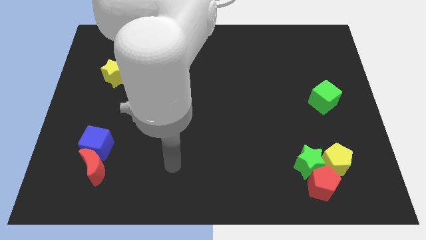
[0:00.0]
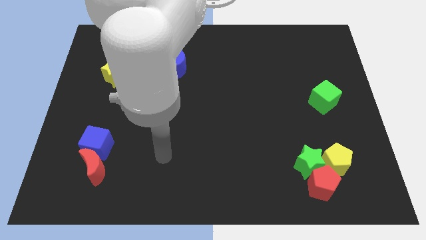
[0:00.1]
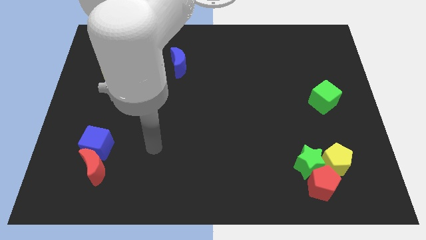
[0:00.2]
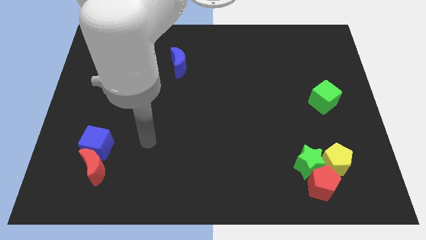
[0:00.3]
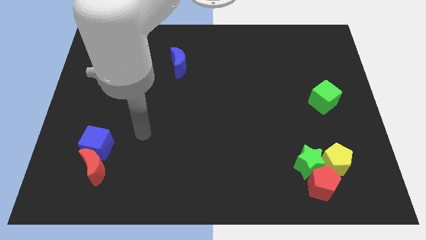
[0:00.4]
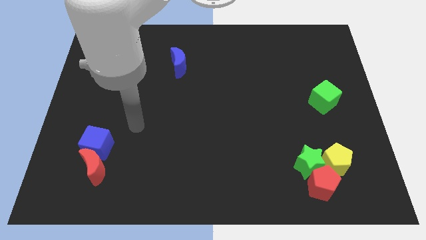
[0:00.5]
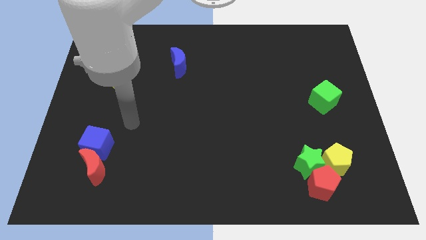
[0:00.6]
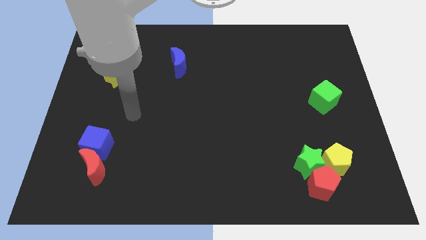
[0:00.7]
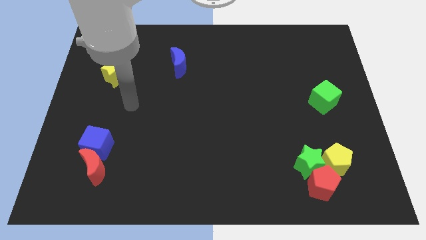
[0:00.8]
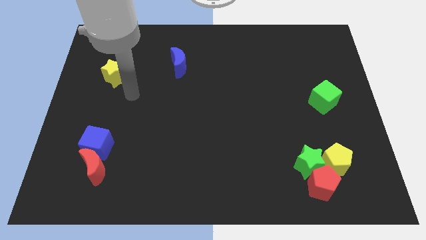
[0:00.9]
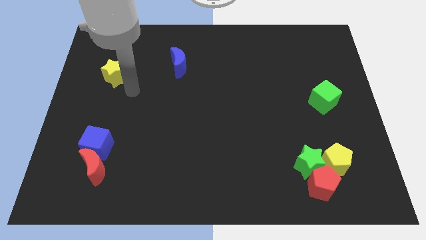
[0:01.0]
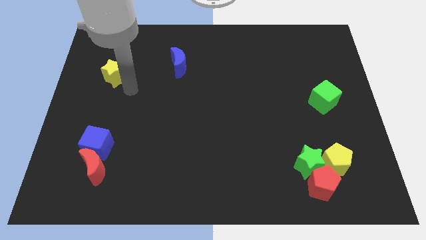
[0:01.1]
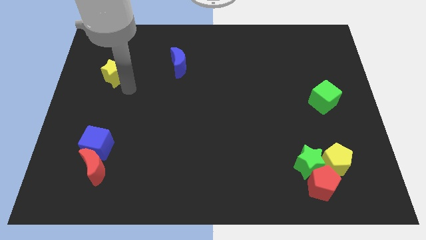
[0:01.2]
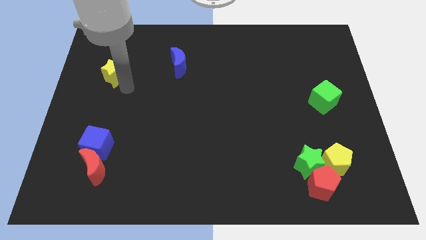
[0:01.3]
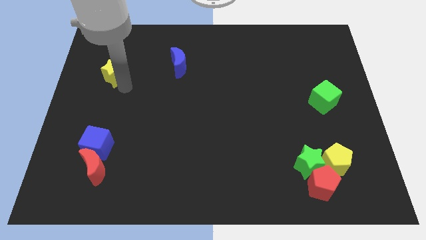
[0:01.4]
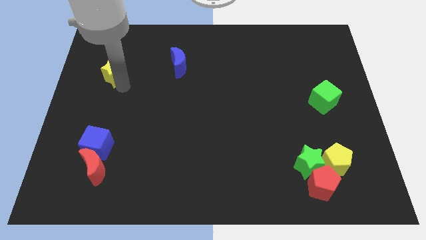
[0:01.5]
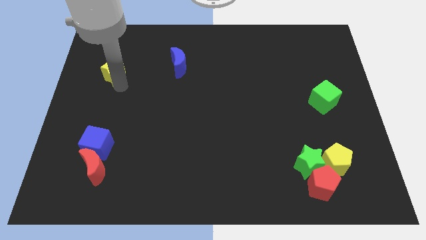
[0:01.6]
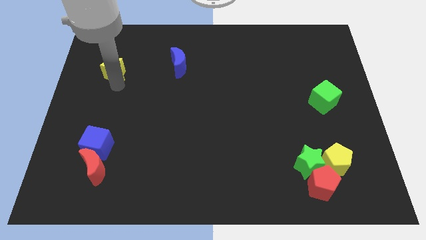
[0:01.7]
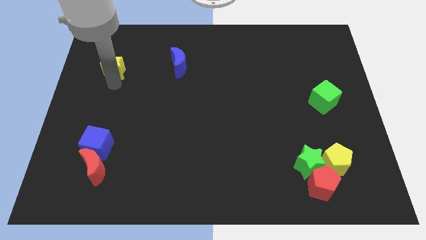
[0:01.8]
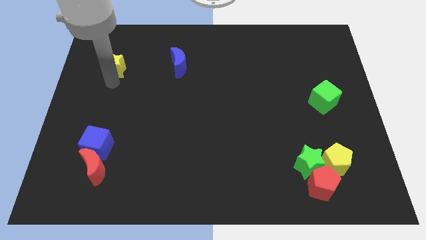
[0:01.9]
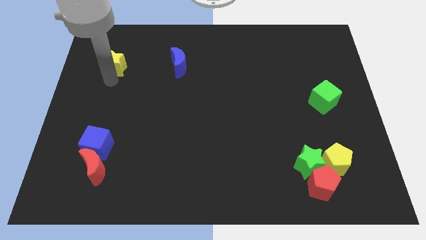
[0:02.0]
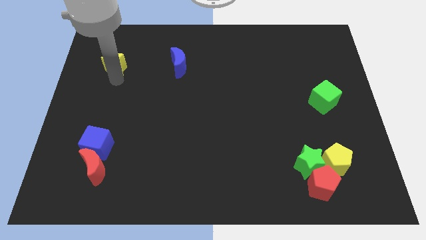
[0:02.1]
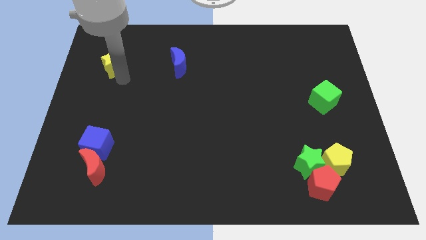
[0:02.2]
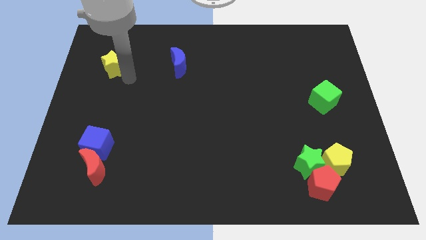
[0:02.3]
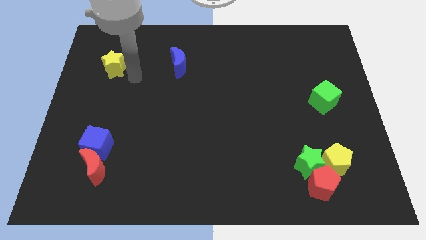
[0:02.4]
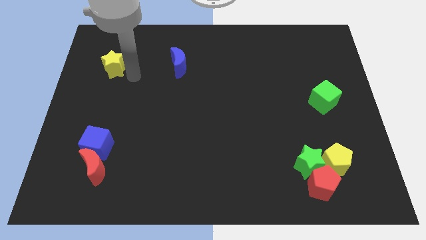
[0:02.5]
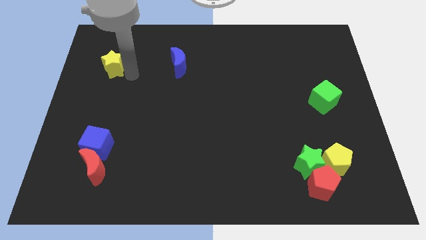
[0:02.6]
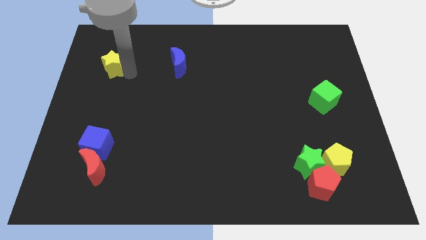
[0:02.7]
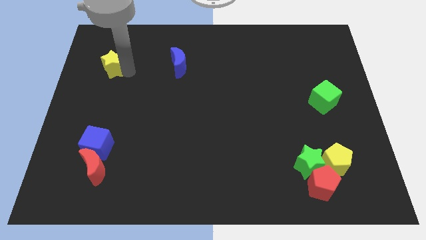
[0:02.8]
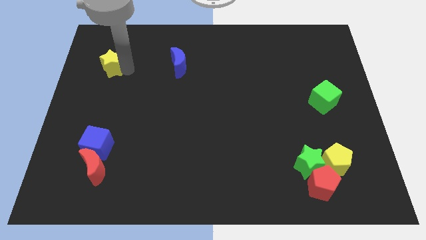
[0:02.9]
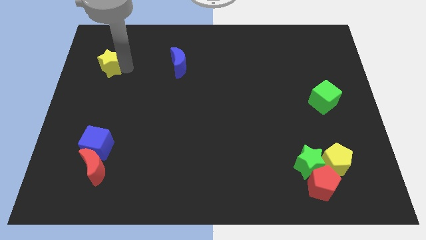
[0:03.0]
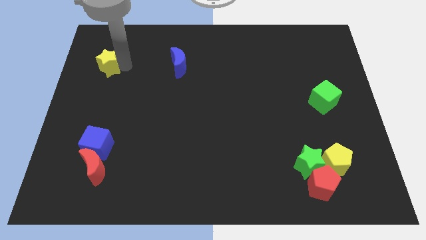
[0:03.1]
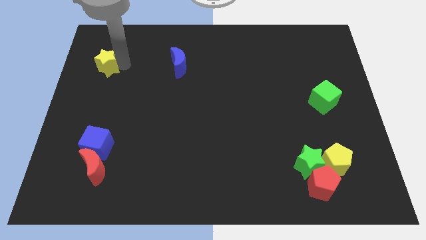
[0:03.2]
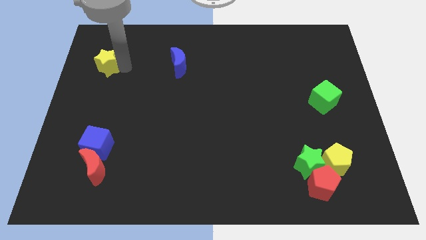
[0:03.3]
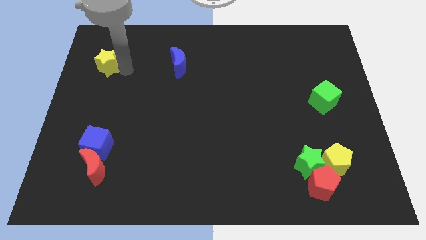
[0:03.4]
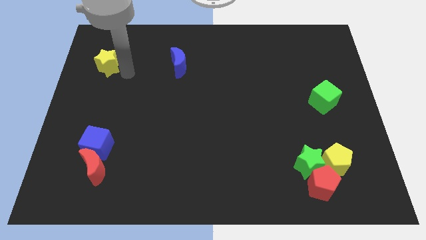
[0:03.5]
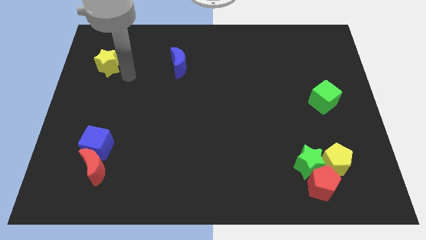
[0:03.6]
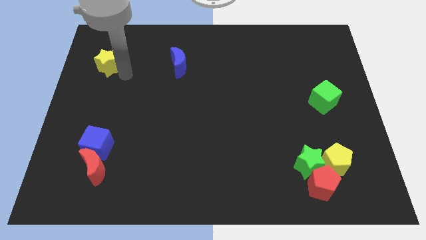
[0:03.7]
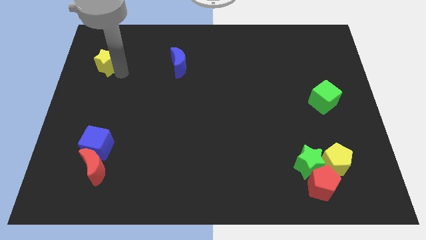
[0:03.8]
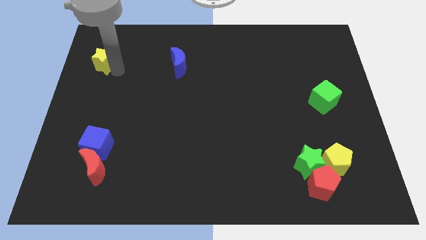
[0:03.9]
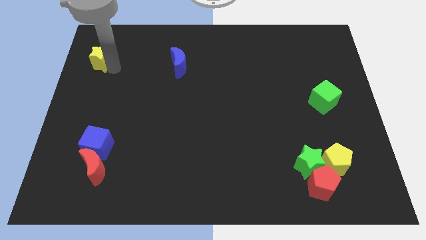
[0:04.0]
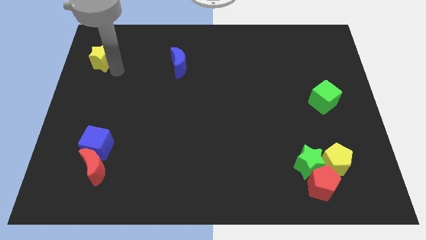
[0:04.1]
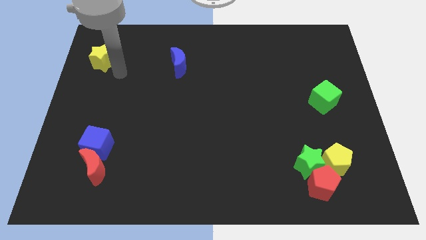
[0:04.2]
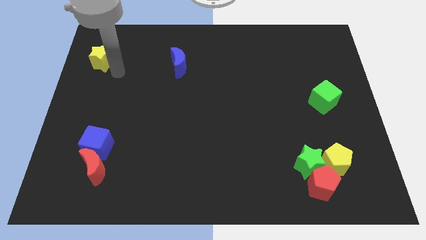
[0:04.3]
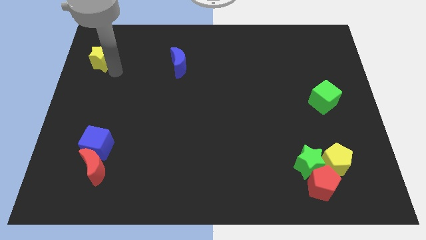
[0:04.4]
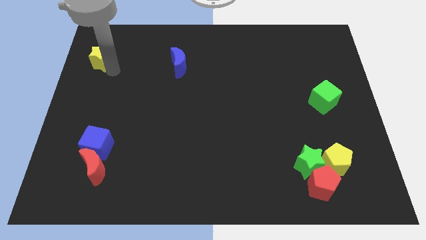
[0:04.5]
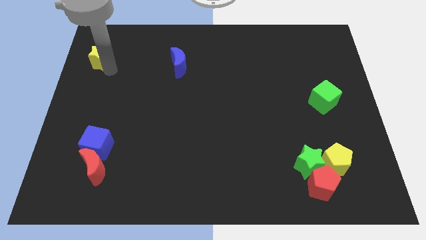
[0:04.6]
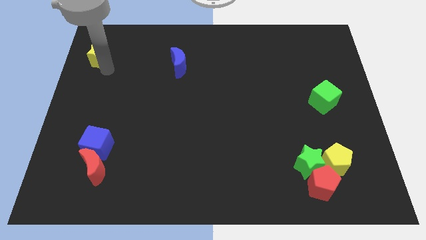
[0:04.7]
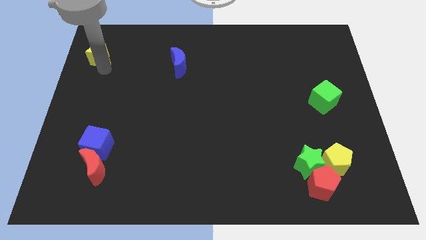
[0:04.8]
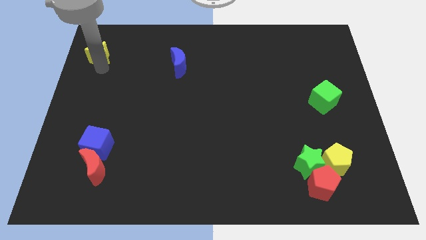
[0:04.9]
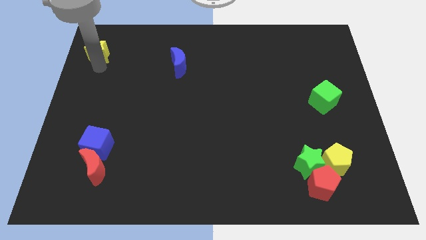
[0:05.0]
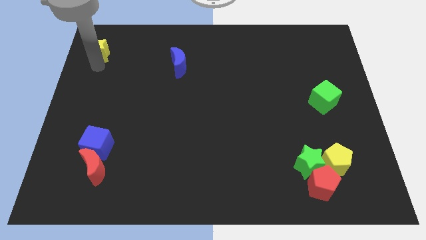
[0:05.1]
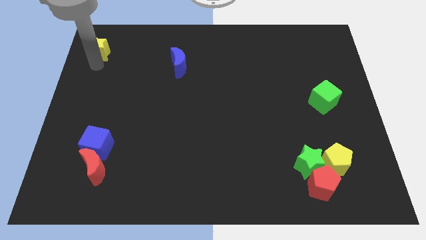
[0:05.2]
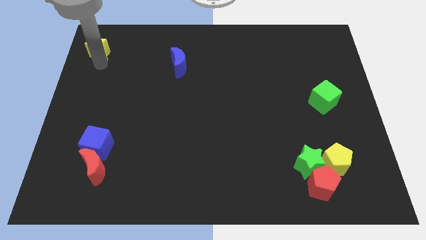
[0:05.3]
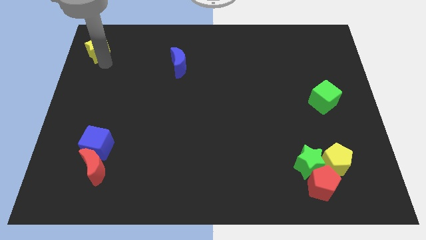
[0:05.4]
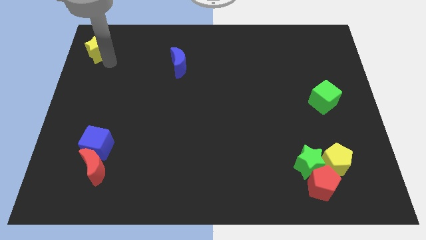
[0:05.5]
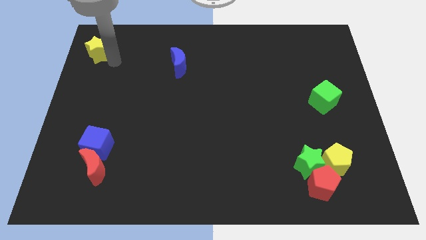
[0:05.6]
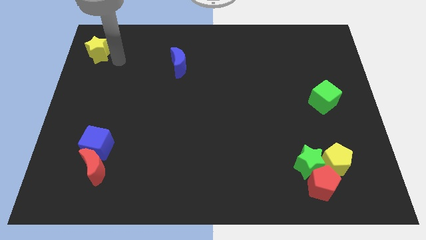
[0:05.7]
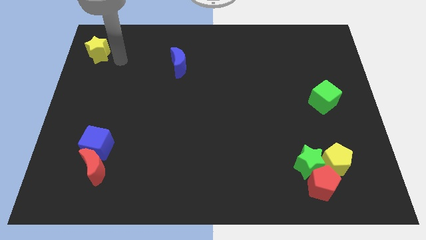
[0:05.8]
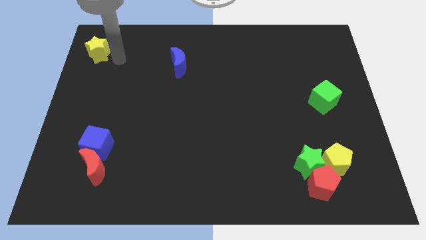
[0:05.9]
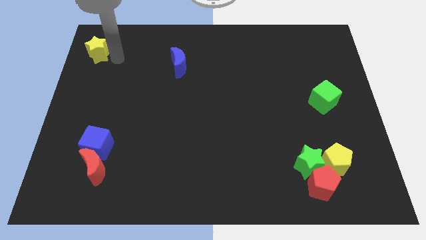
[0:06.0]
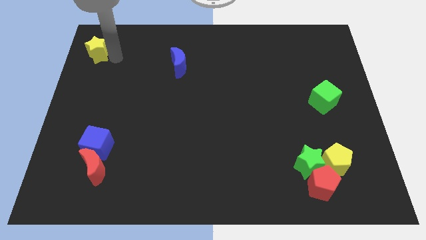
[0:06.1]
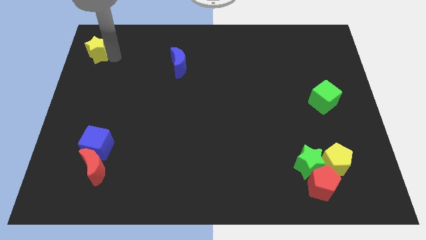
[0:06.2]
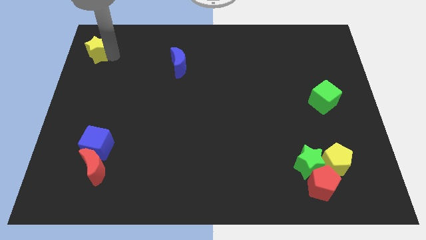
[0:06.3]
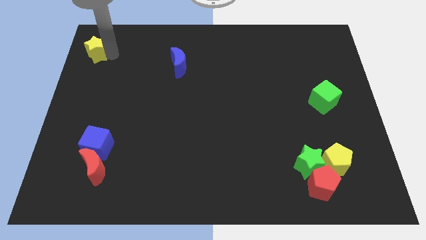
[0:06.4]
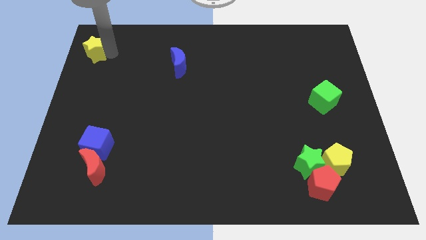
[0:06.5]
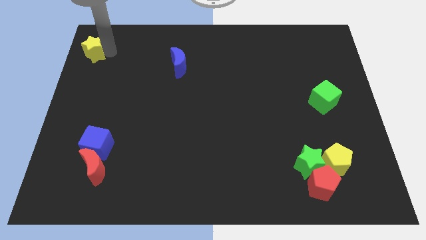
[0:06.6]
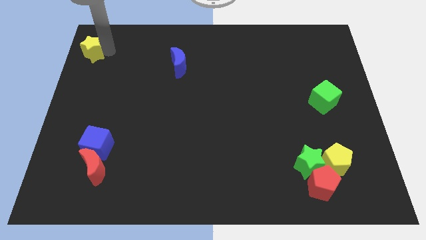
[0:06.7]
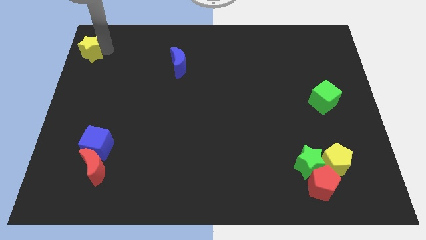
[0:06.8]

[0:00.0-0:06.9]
move the yellow star to the top left of the board
